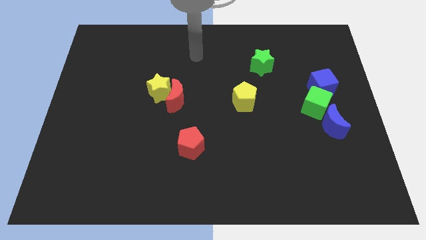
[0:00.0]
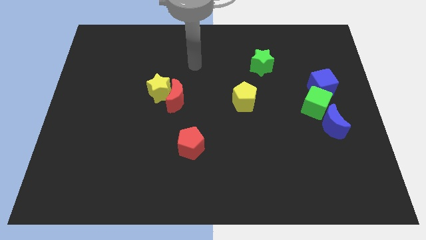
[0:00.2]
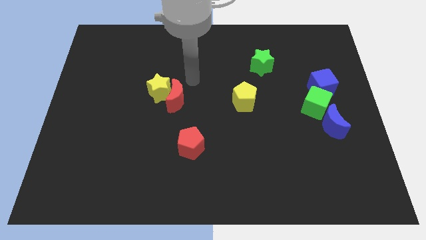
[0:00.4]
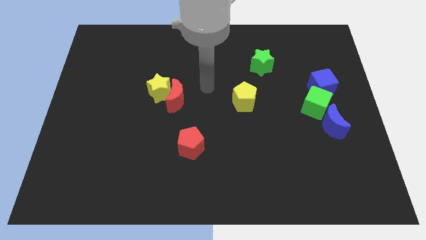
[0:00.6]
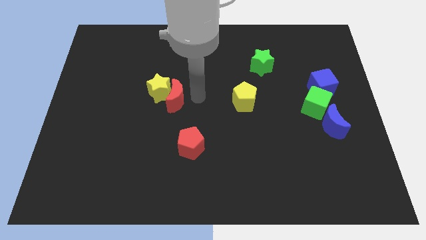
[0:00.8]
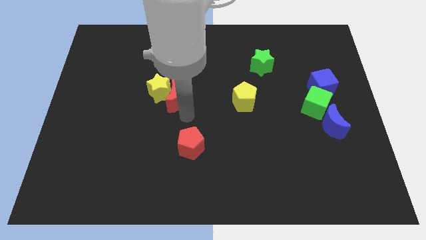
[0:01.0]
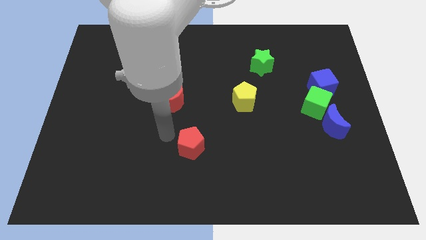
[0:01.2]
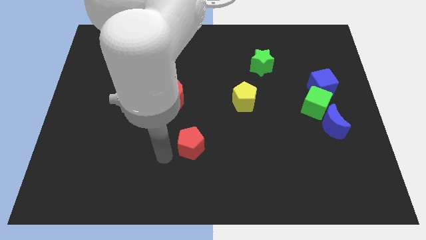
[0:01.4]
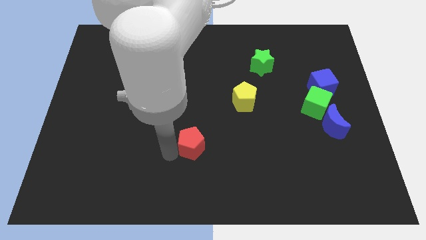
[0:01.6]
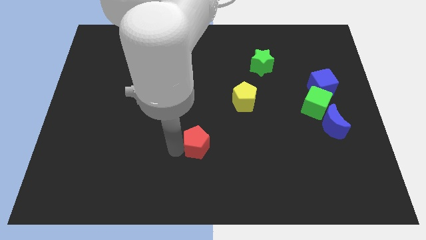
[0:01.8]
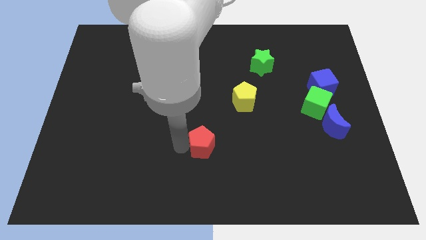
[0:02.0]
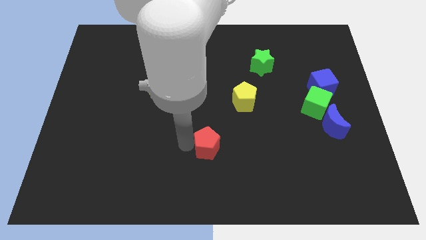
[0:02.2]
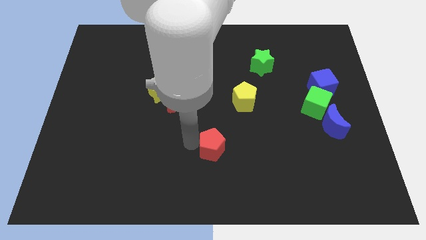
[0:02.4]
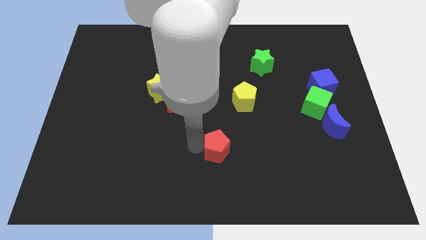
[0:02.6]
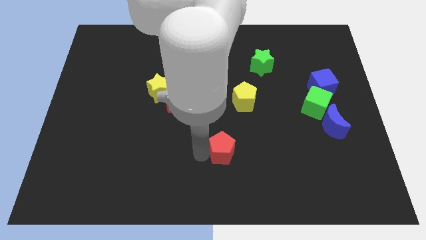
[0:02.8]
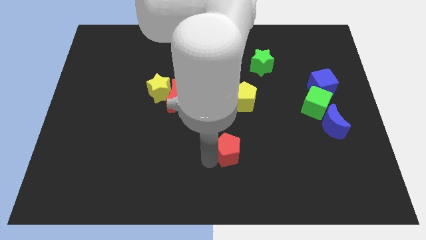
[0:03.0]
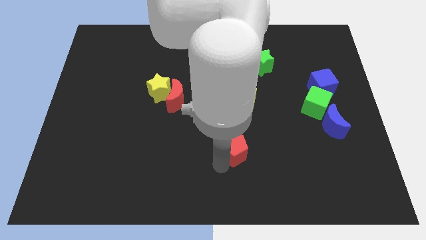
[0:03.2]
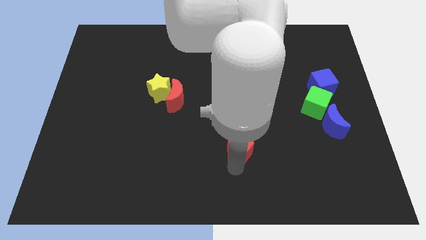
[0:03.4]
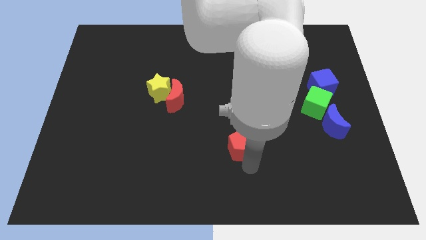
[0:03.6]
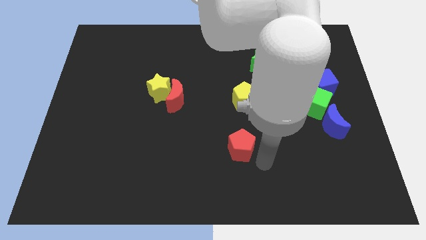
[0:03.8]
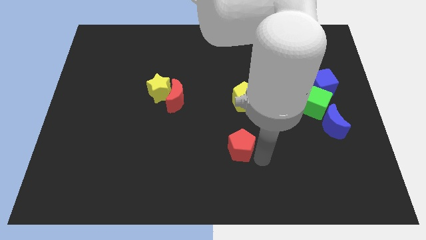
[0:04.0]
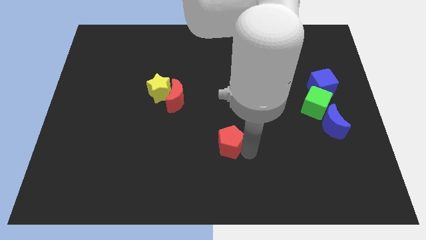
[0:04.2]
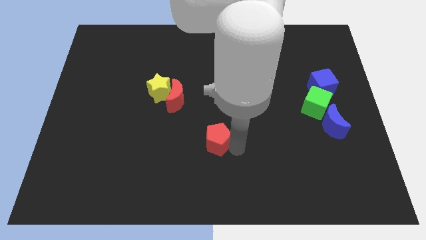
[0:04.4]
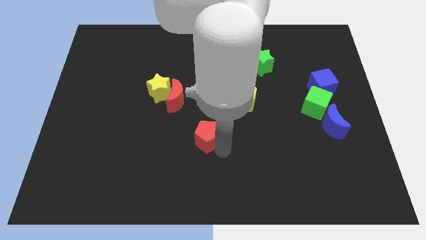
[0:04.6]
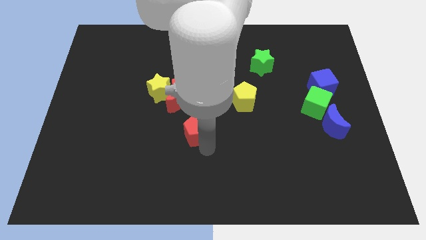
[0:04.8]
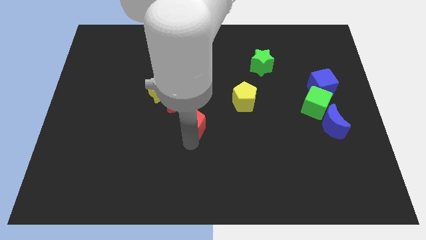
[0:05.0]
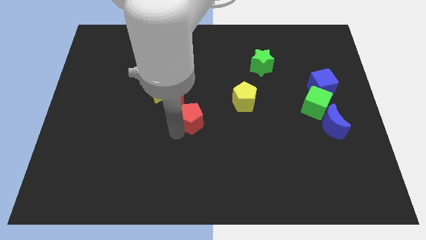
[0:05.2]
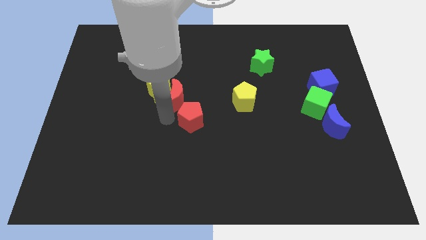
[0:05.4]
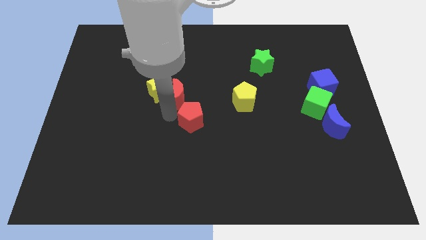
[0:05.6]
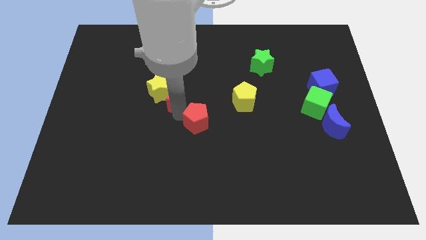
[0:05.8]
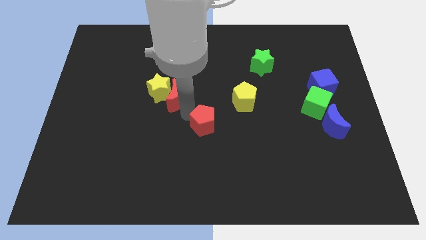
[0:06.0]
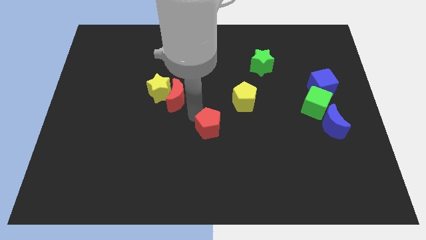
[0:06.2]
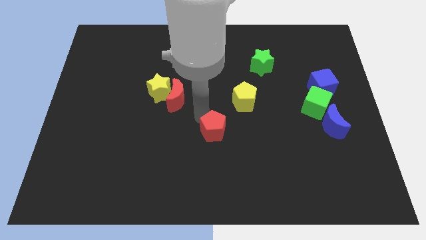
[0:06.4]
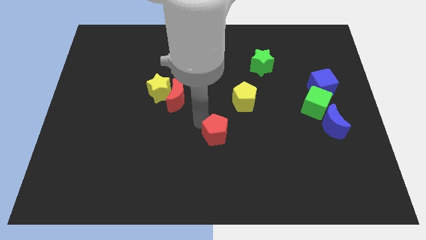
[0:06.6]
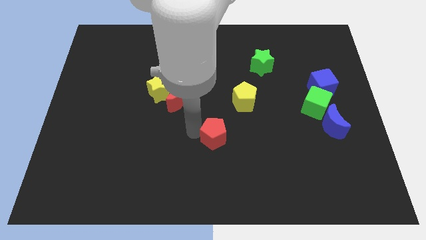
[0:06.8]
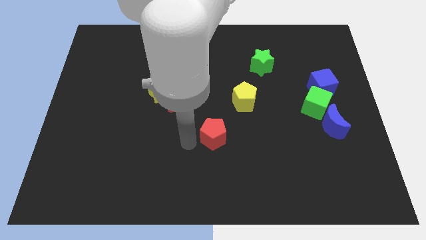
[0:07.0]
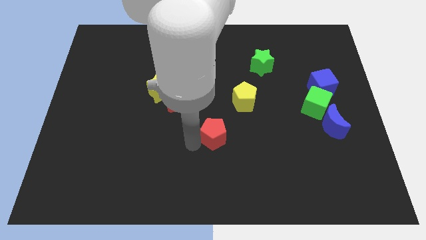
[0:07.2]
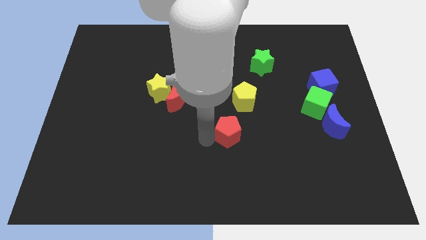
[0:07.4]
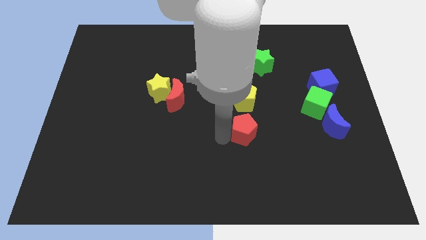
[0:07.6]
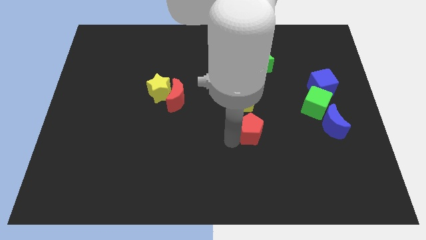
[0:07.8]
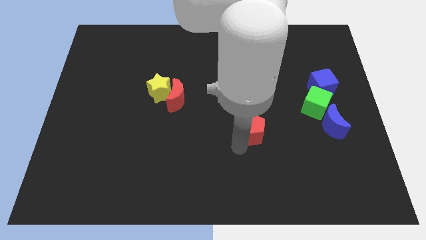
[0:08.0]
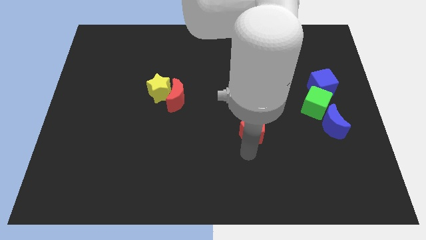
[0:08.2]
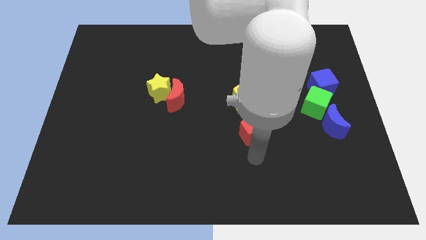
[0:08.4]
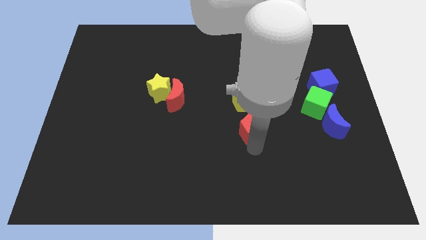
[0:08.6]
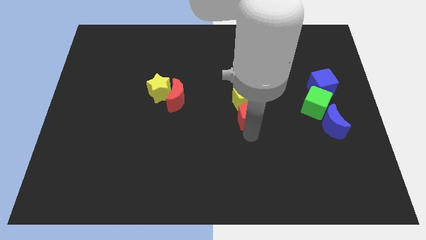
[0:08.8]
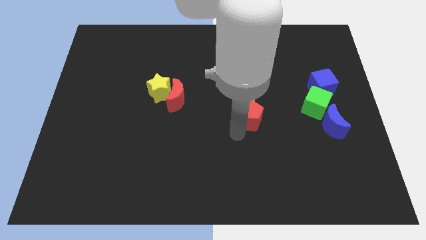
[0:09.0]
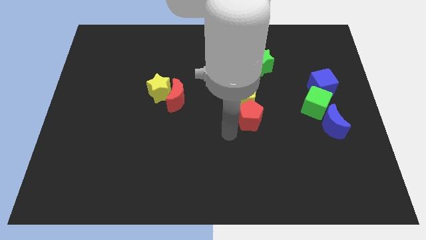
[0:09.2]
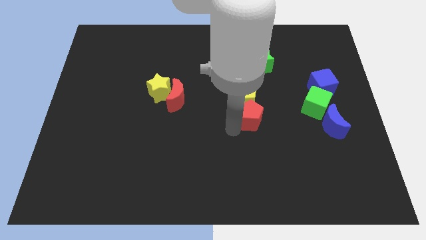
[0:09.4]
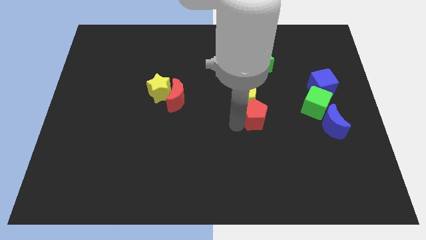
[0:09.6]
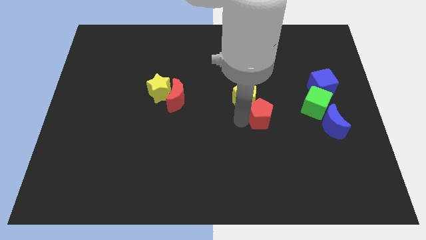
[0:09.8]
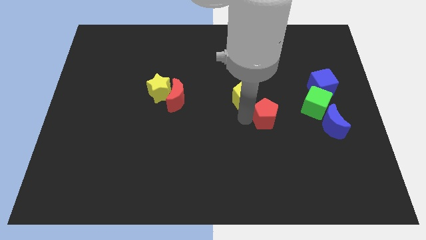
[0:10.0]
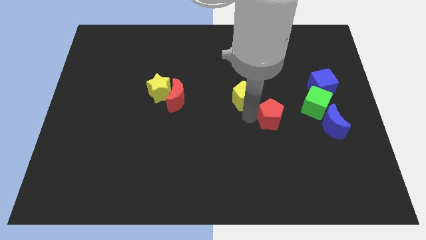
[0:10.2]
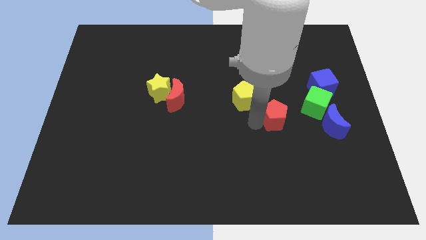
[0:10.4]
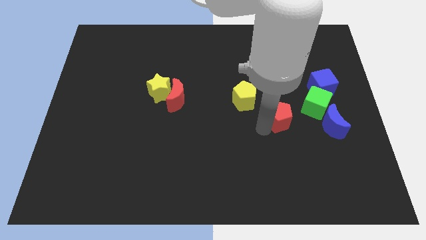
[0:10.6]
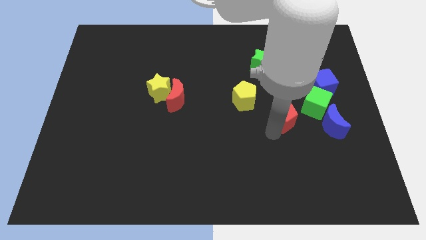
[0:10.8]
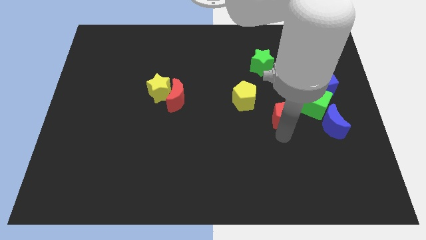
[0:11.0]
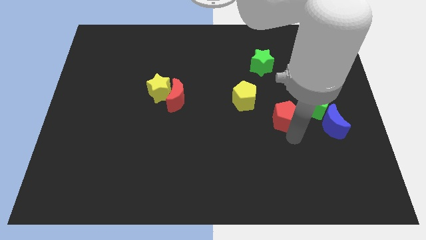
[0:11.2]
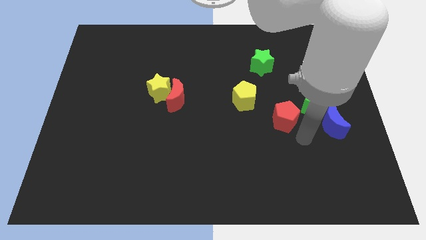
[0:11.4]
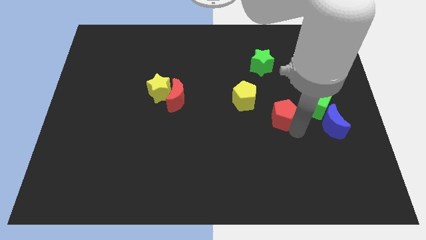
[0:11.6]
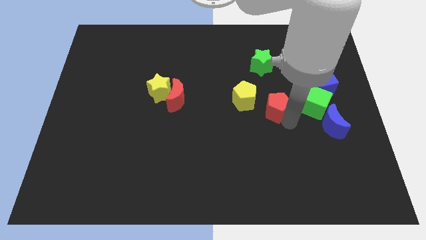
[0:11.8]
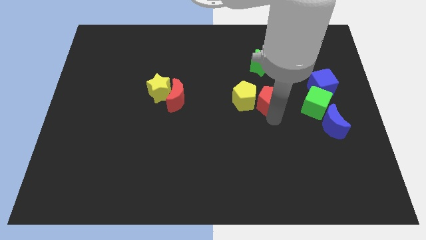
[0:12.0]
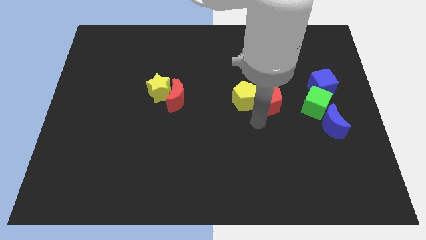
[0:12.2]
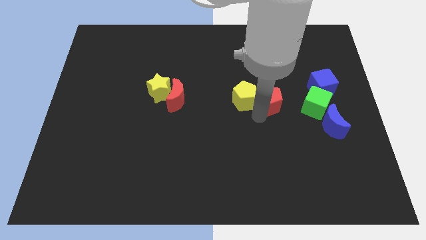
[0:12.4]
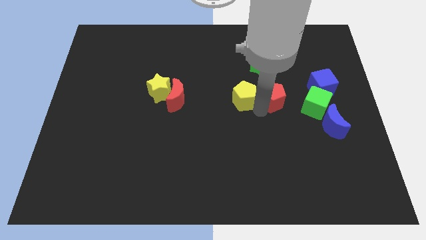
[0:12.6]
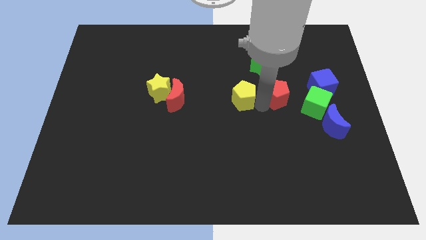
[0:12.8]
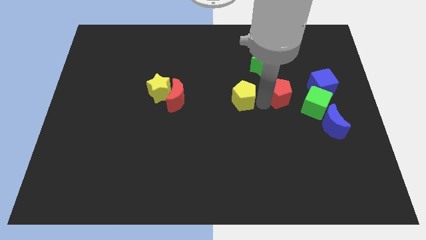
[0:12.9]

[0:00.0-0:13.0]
push the red pentagon diagonally down and to the right of the green star

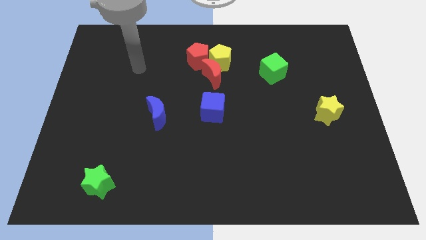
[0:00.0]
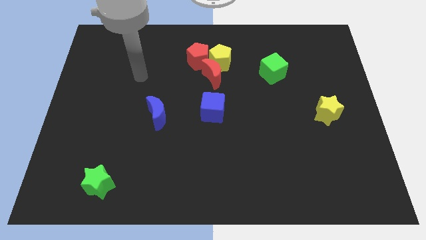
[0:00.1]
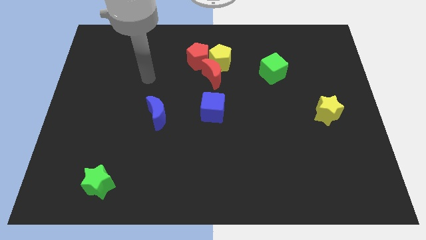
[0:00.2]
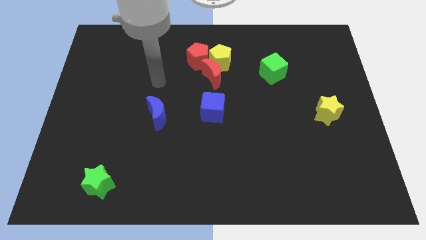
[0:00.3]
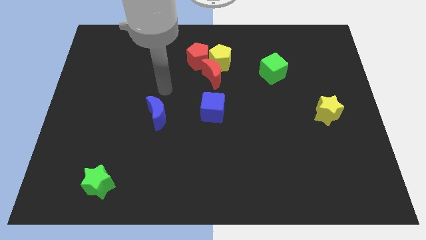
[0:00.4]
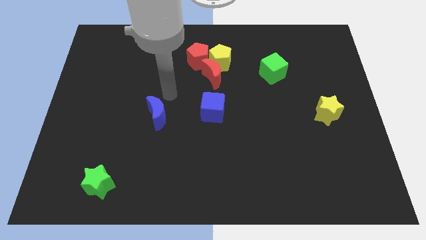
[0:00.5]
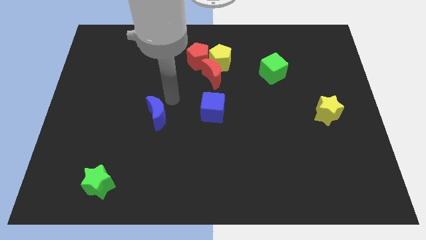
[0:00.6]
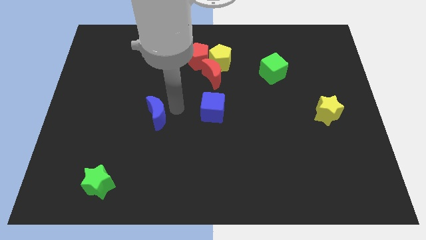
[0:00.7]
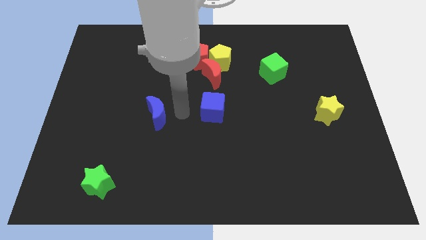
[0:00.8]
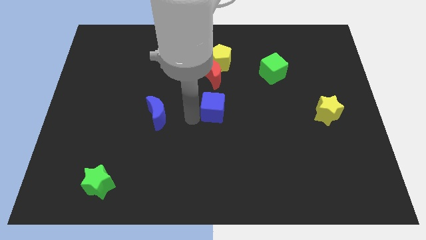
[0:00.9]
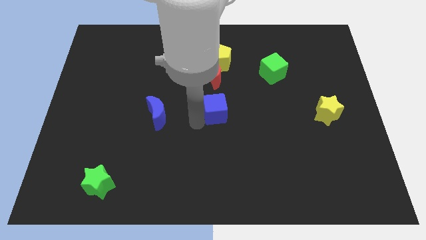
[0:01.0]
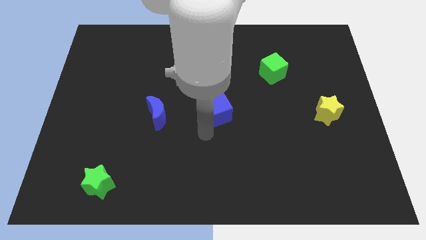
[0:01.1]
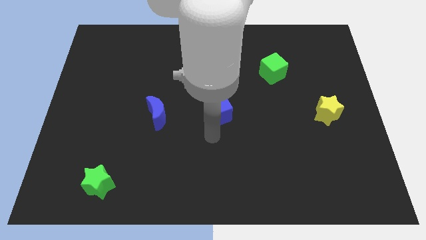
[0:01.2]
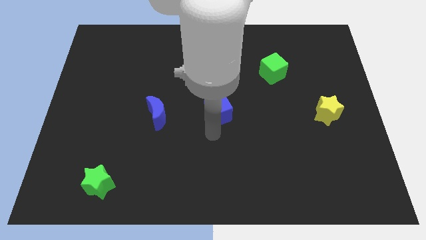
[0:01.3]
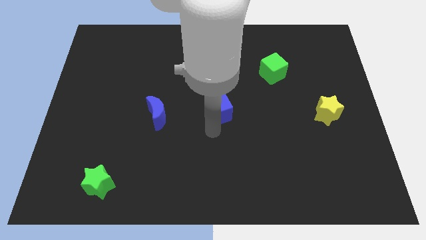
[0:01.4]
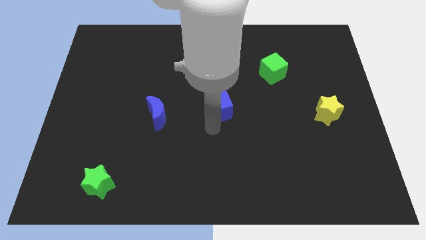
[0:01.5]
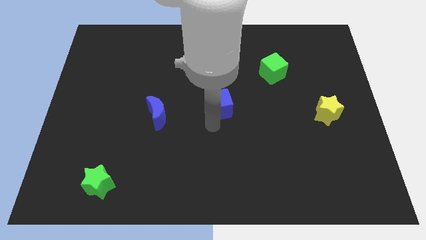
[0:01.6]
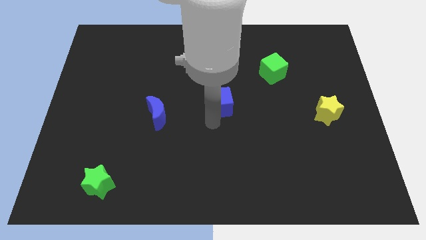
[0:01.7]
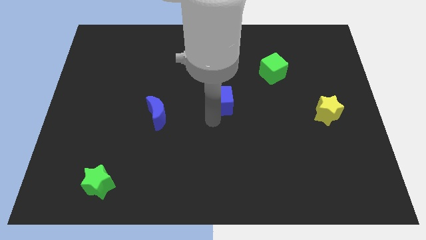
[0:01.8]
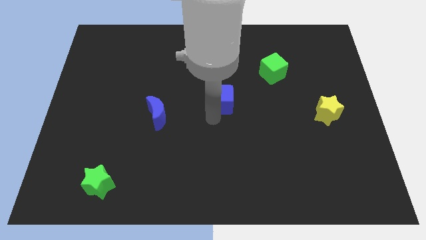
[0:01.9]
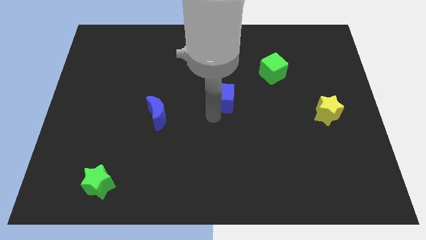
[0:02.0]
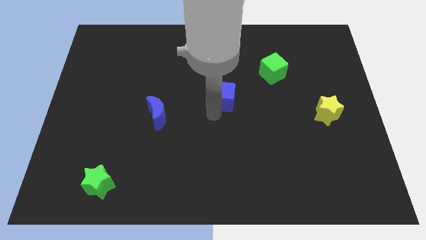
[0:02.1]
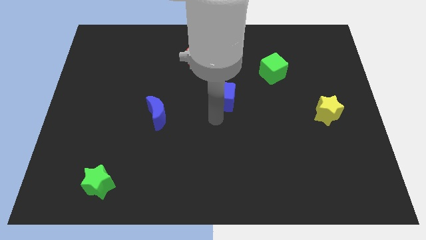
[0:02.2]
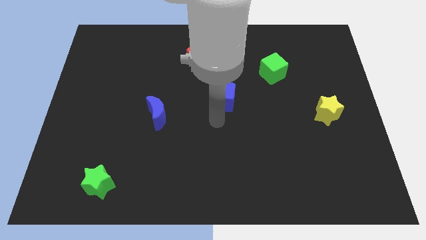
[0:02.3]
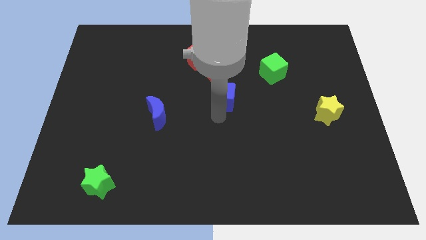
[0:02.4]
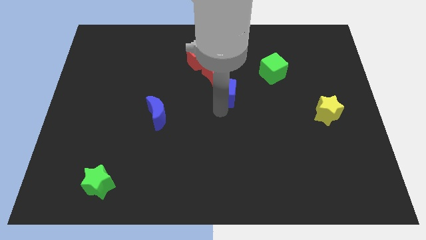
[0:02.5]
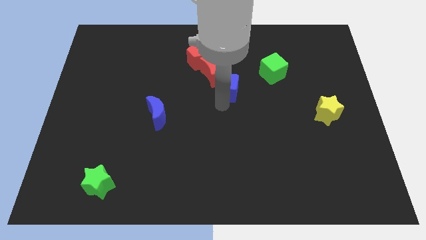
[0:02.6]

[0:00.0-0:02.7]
put the blue cube diagonally down and to the right of the red pentagon
